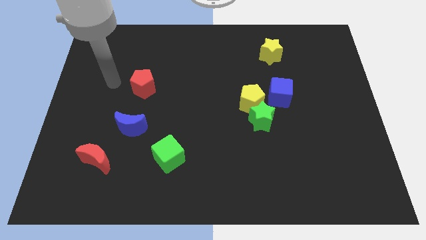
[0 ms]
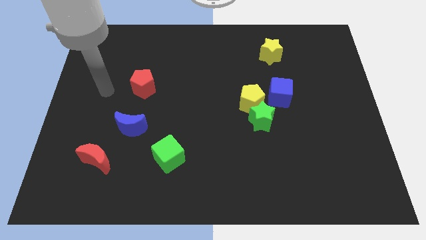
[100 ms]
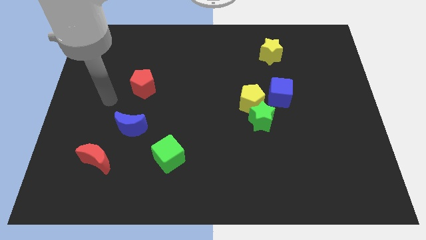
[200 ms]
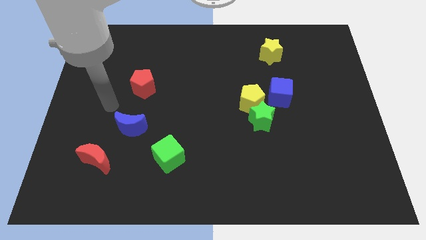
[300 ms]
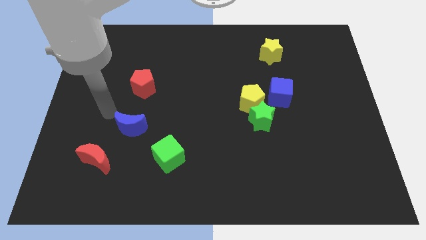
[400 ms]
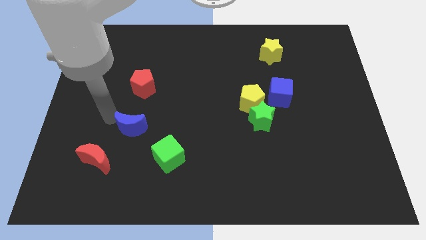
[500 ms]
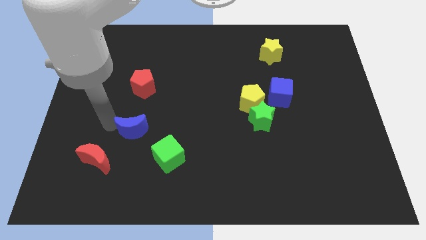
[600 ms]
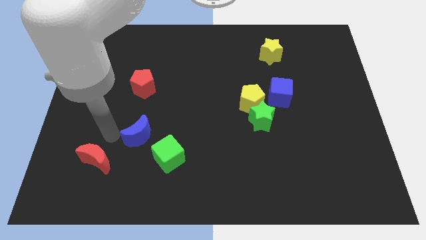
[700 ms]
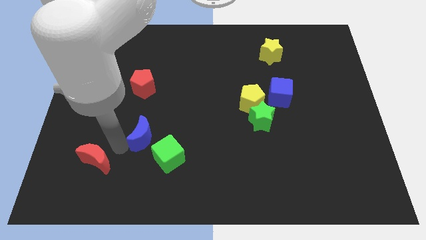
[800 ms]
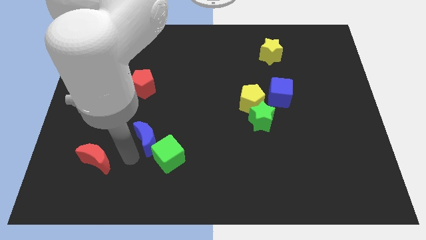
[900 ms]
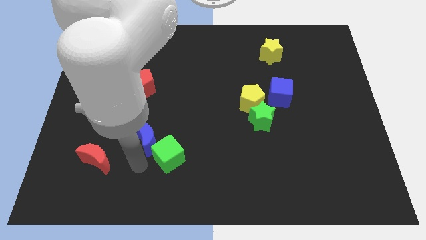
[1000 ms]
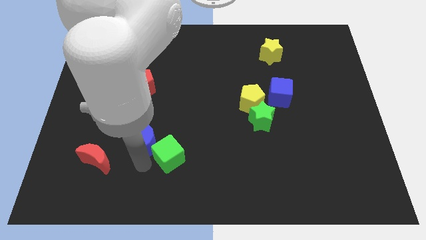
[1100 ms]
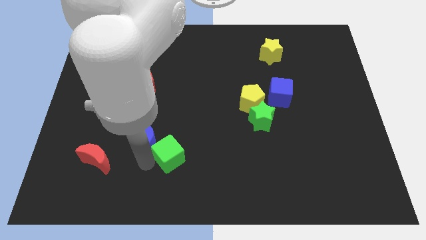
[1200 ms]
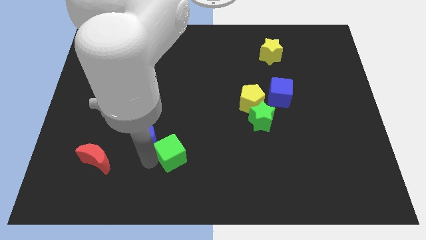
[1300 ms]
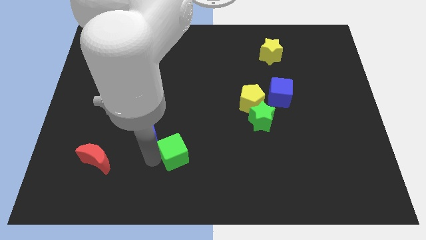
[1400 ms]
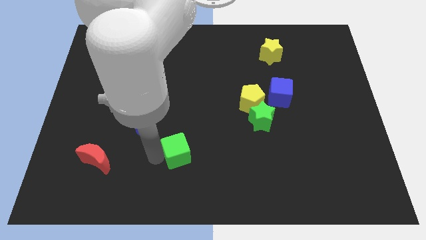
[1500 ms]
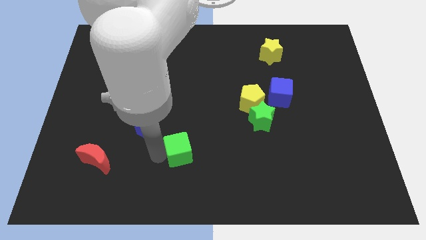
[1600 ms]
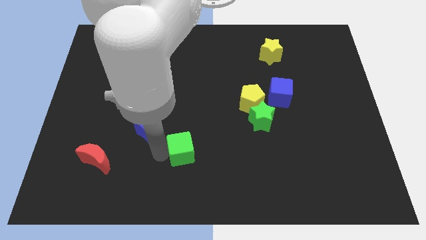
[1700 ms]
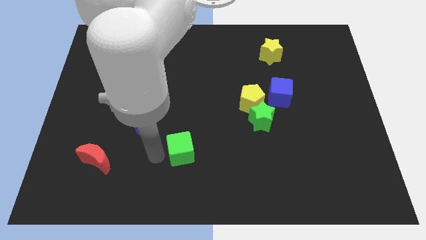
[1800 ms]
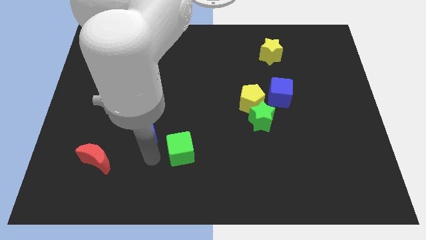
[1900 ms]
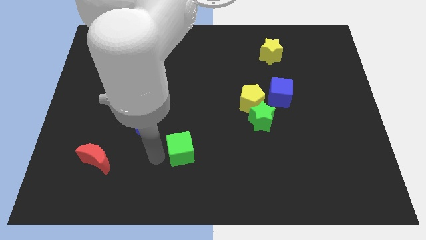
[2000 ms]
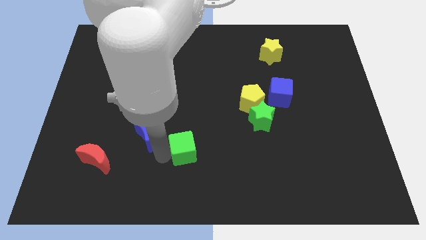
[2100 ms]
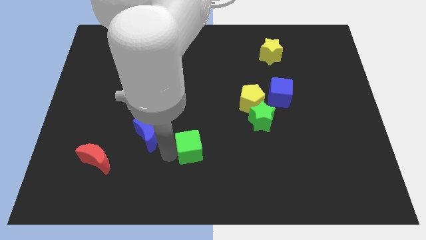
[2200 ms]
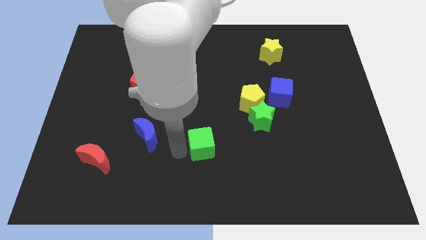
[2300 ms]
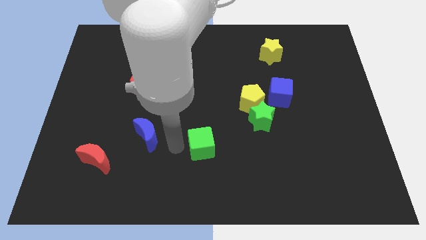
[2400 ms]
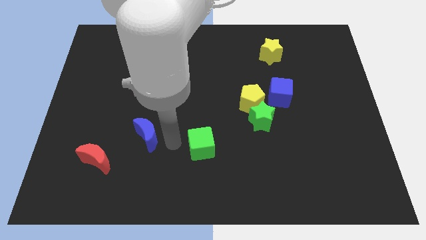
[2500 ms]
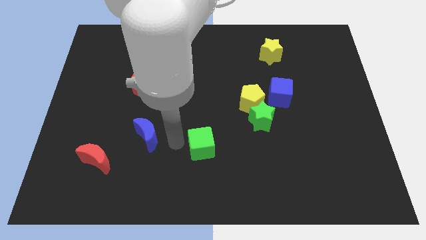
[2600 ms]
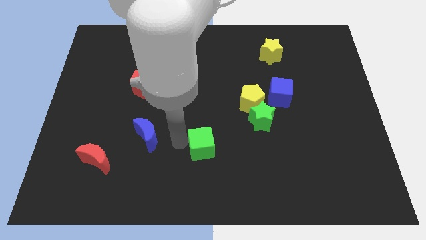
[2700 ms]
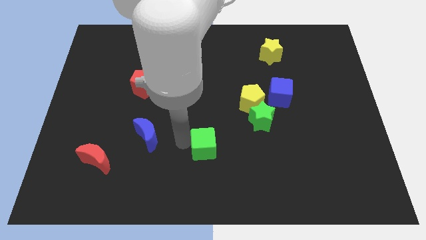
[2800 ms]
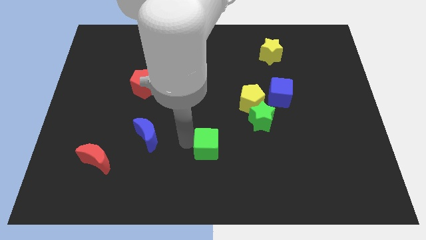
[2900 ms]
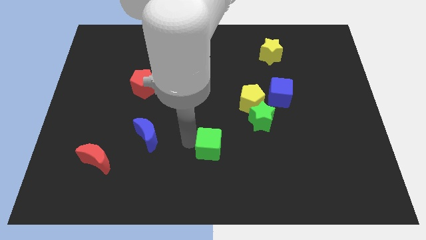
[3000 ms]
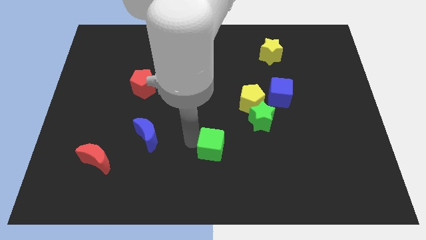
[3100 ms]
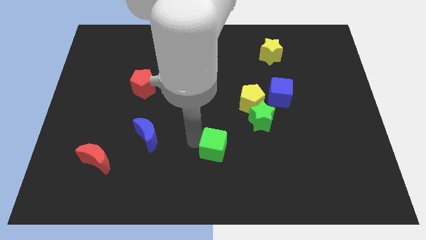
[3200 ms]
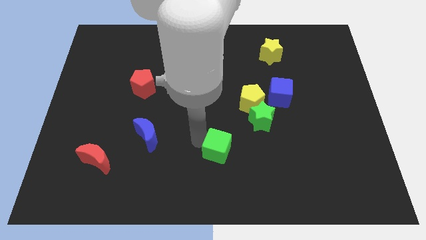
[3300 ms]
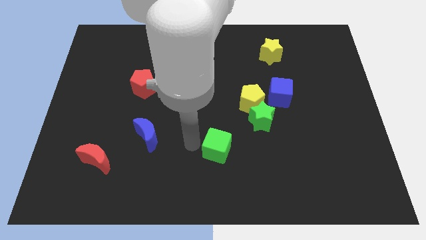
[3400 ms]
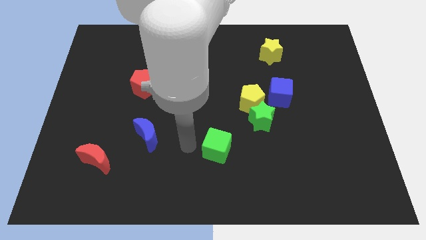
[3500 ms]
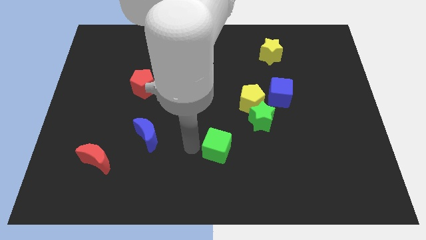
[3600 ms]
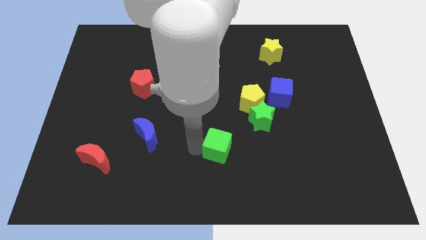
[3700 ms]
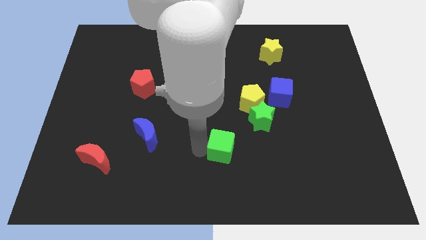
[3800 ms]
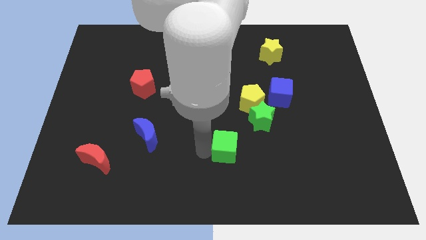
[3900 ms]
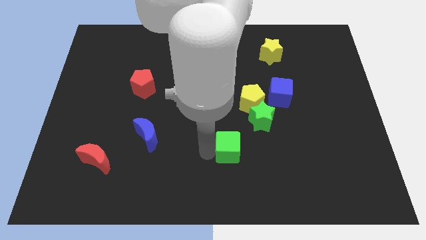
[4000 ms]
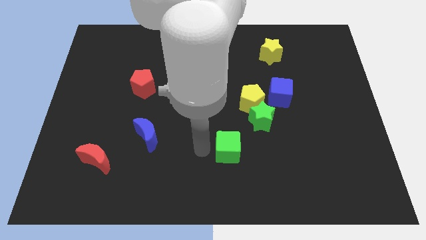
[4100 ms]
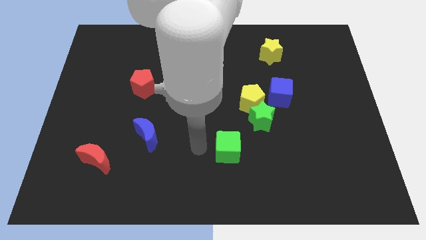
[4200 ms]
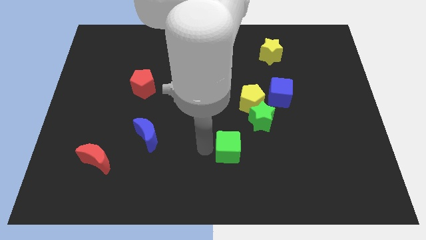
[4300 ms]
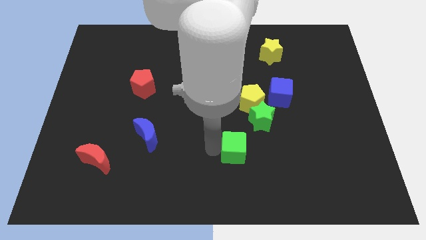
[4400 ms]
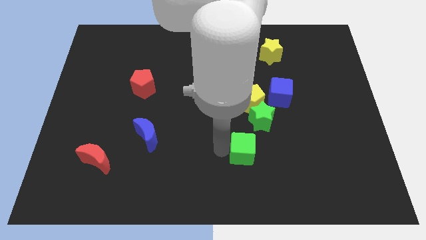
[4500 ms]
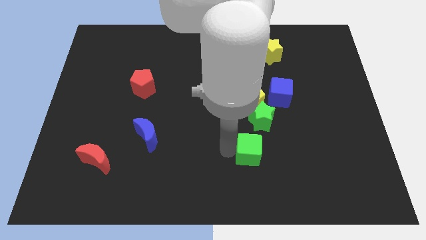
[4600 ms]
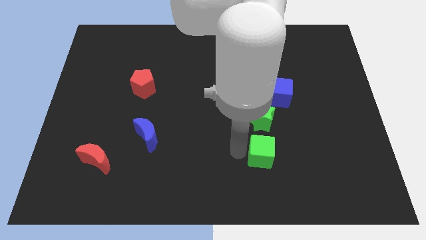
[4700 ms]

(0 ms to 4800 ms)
push the green cube to the right

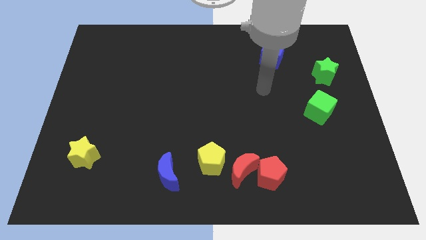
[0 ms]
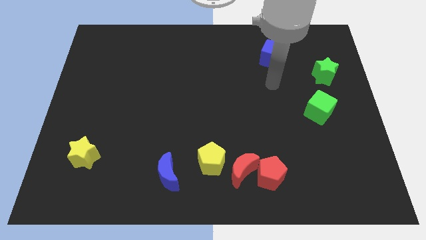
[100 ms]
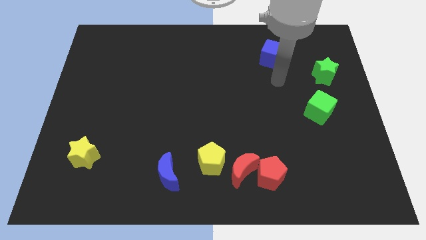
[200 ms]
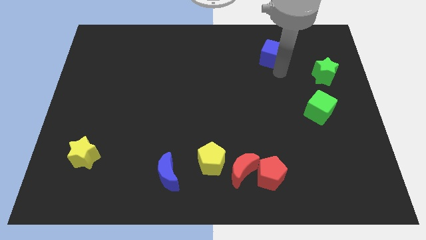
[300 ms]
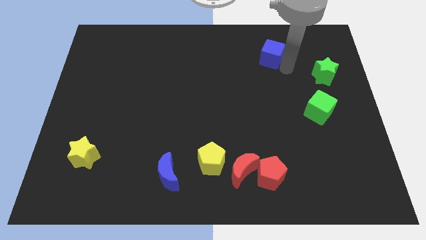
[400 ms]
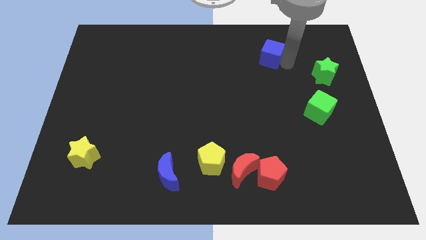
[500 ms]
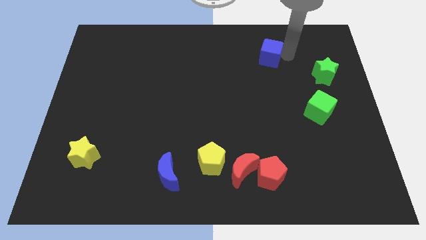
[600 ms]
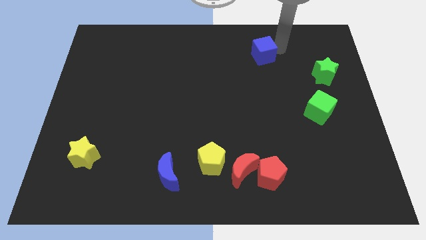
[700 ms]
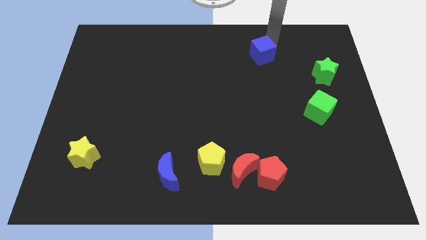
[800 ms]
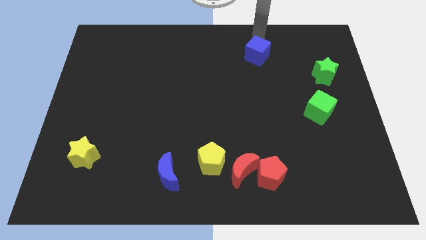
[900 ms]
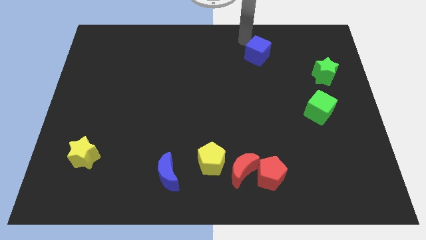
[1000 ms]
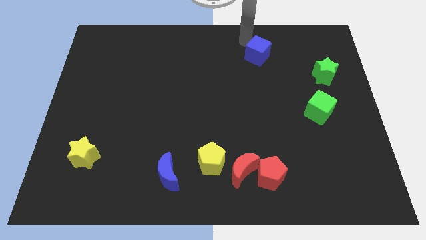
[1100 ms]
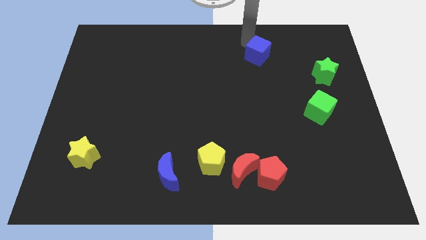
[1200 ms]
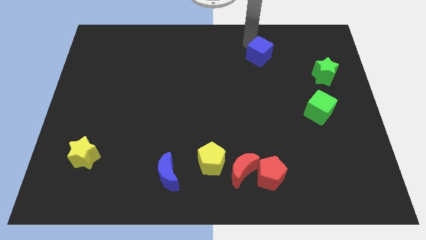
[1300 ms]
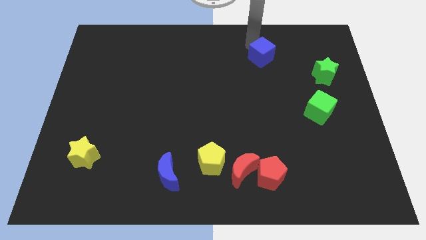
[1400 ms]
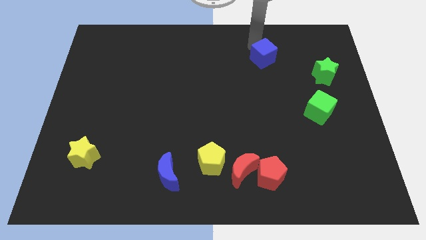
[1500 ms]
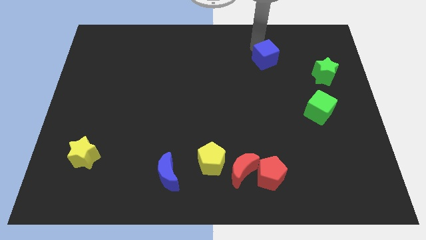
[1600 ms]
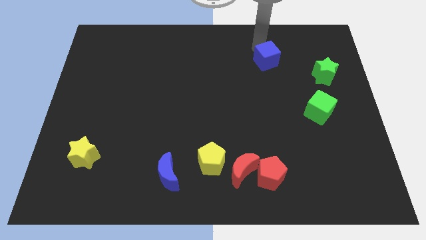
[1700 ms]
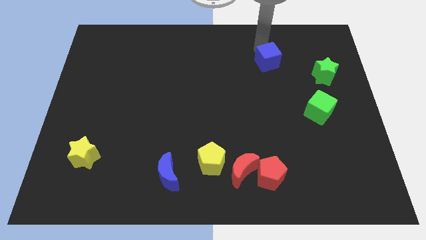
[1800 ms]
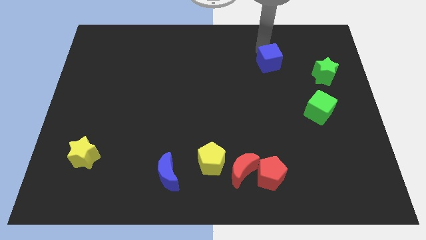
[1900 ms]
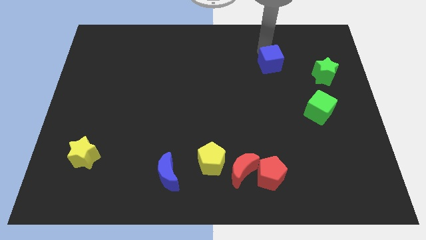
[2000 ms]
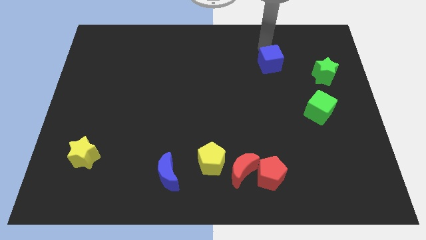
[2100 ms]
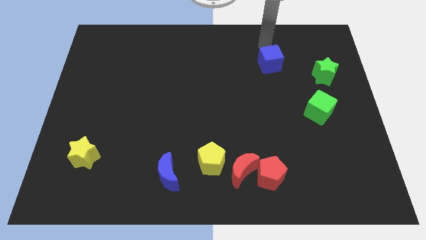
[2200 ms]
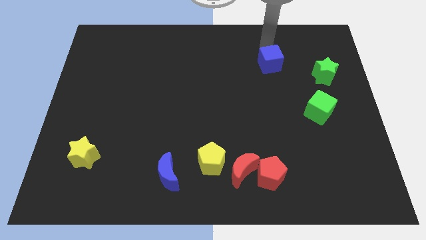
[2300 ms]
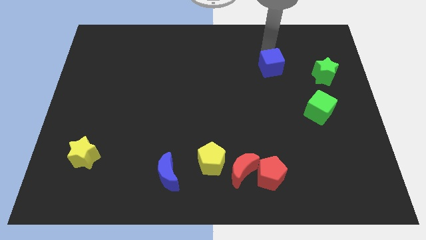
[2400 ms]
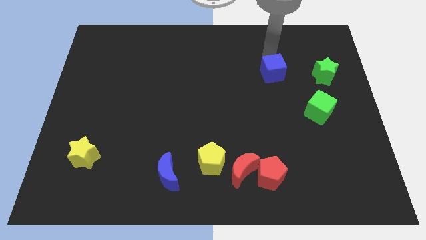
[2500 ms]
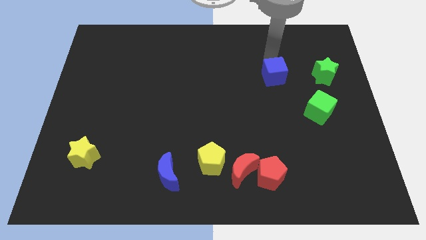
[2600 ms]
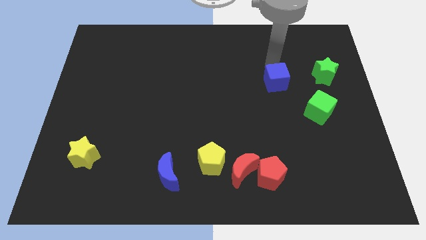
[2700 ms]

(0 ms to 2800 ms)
move the blue cube a little bit down

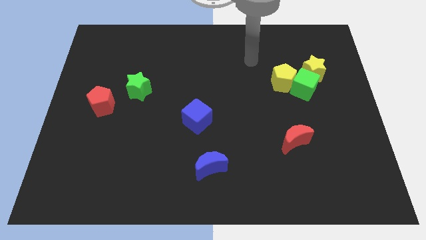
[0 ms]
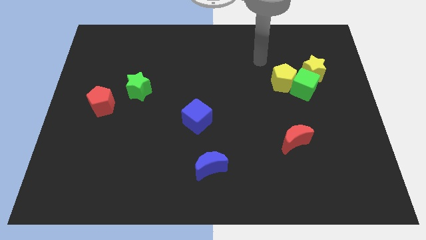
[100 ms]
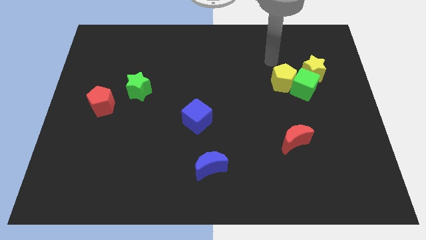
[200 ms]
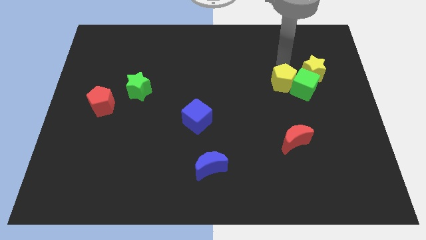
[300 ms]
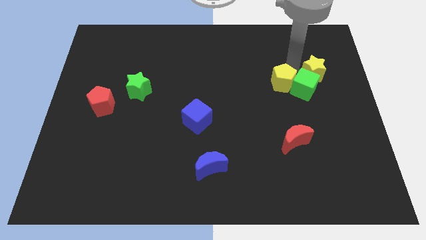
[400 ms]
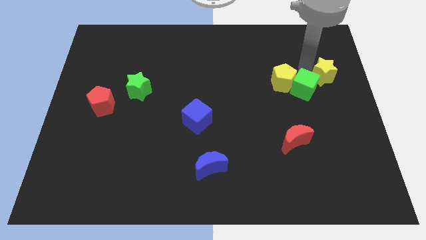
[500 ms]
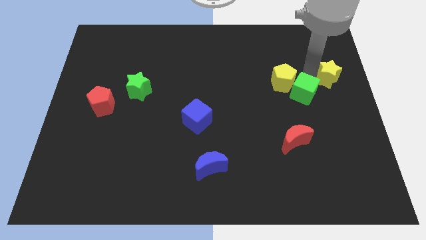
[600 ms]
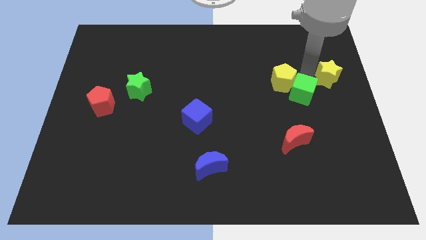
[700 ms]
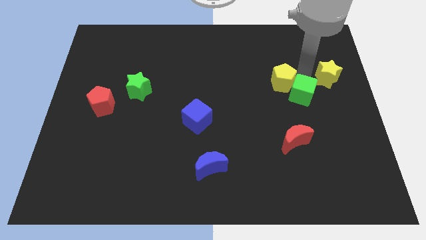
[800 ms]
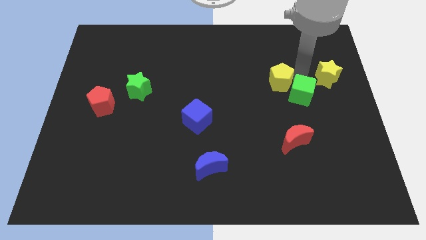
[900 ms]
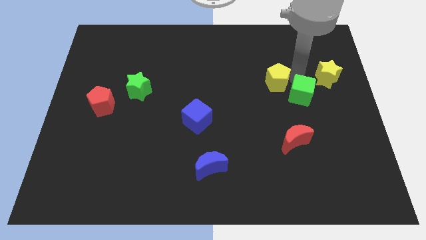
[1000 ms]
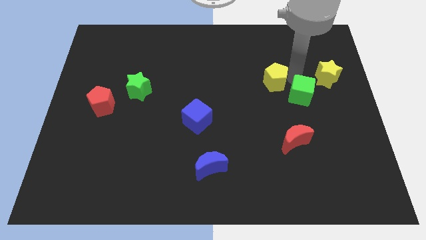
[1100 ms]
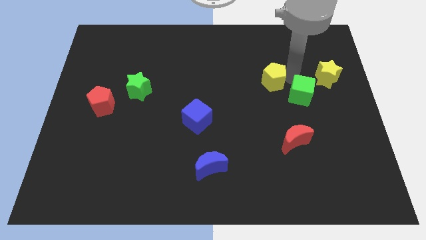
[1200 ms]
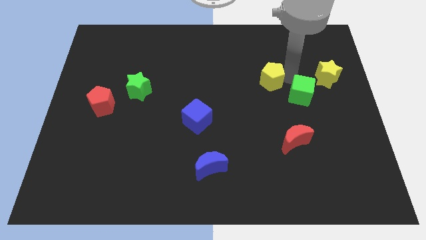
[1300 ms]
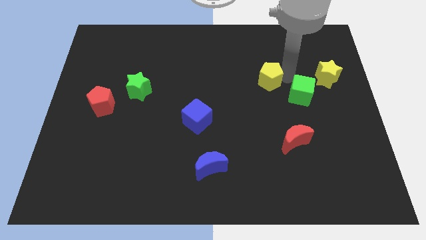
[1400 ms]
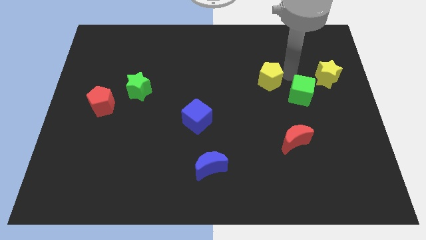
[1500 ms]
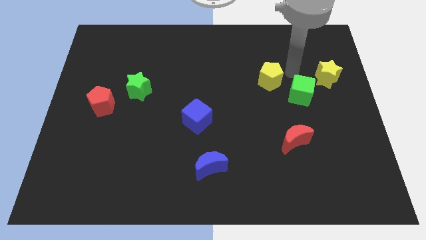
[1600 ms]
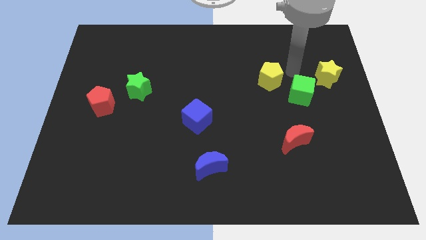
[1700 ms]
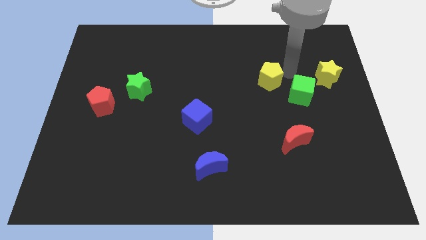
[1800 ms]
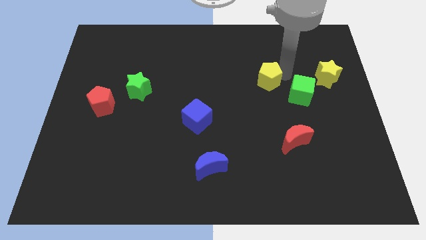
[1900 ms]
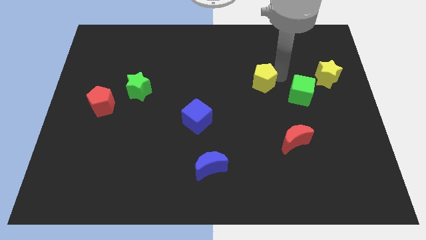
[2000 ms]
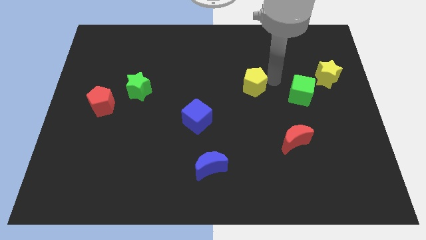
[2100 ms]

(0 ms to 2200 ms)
move the yellow pentagon a little bit to the left
